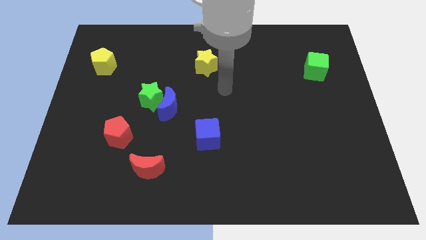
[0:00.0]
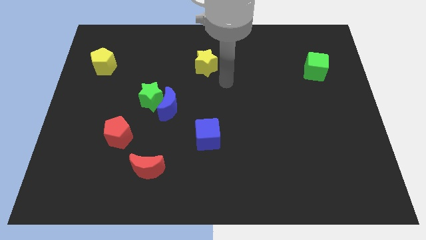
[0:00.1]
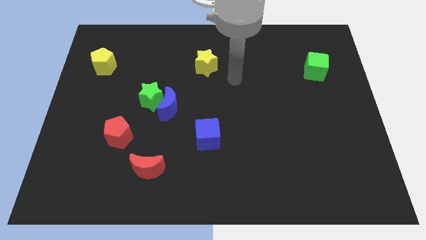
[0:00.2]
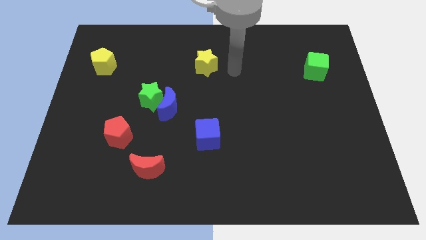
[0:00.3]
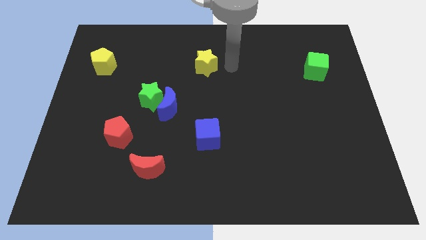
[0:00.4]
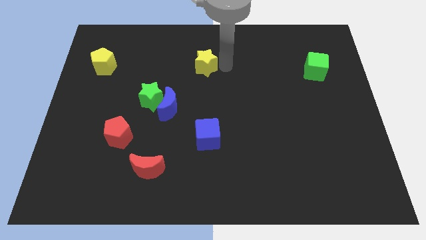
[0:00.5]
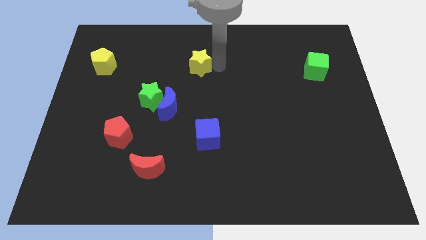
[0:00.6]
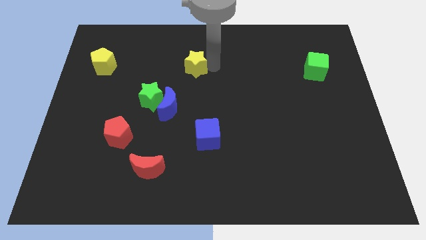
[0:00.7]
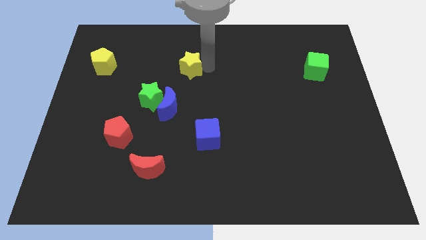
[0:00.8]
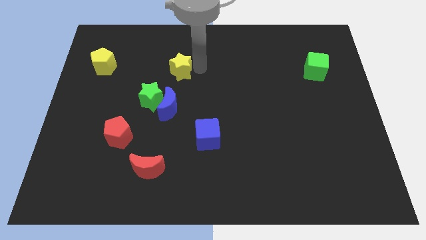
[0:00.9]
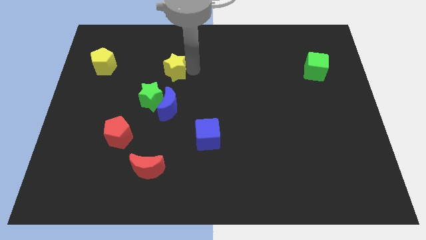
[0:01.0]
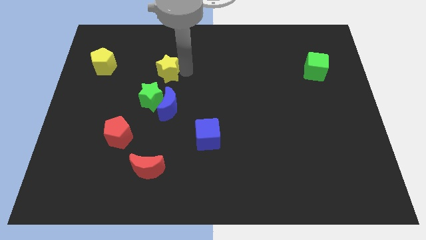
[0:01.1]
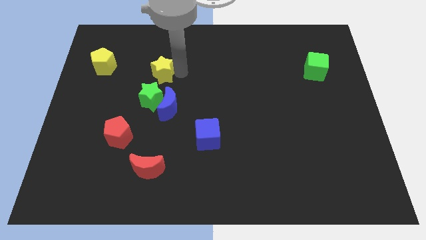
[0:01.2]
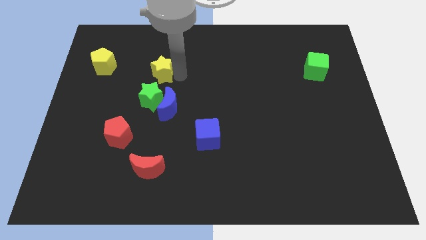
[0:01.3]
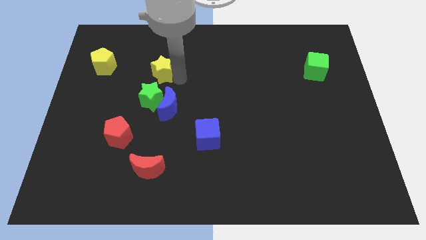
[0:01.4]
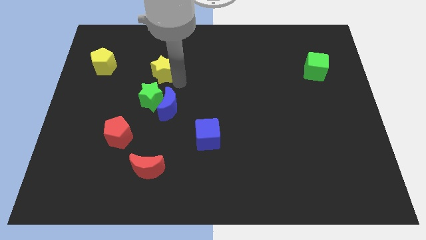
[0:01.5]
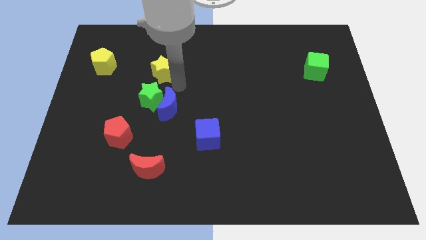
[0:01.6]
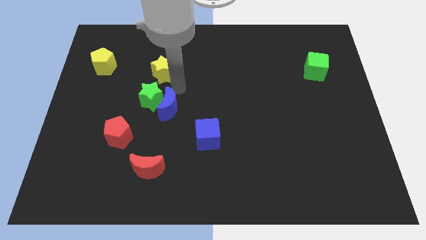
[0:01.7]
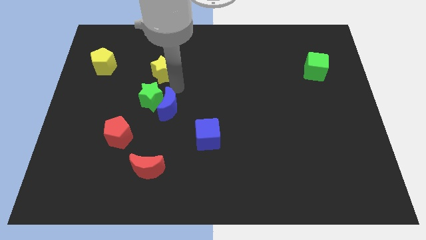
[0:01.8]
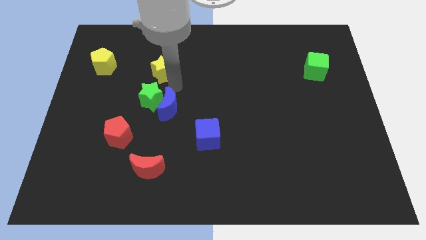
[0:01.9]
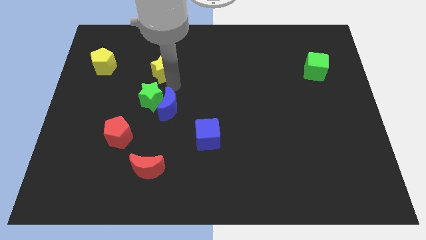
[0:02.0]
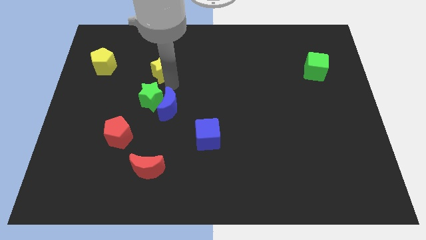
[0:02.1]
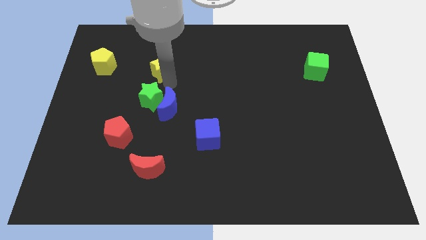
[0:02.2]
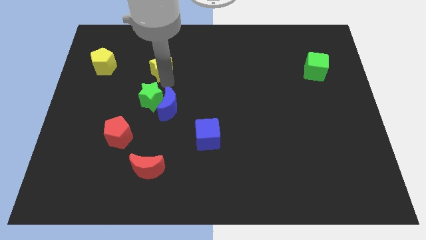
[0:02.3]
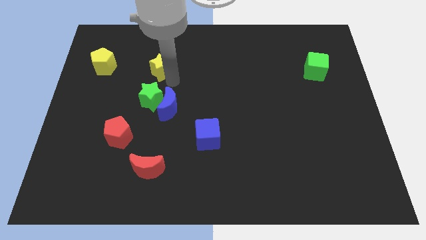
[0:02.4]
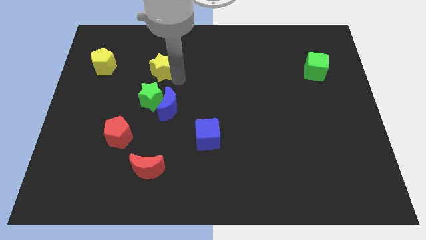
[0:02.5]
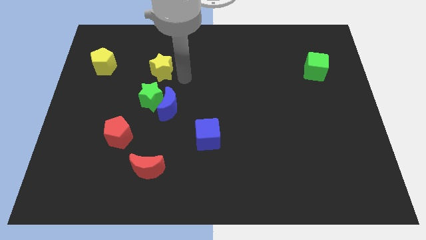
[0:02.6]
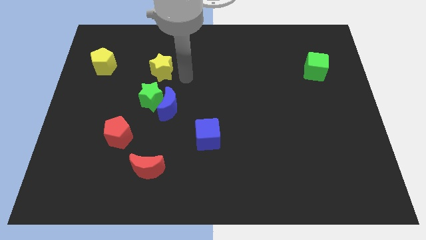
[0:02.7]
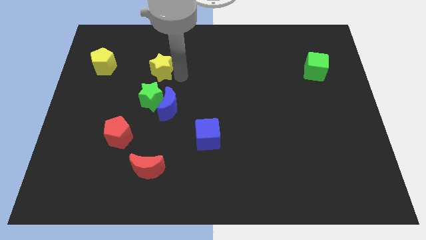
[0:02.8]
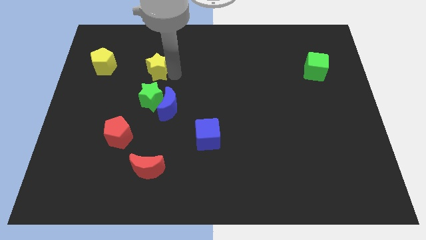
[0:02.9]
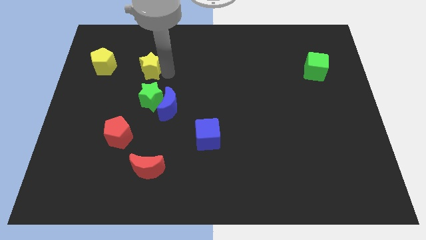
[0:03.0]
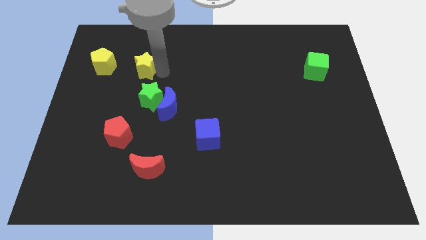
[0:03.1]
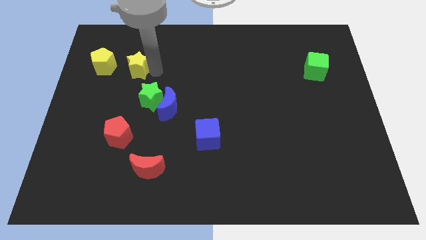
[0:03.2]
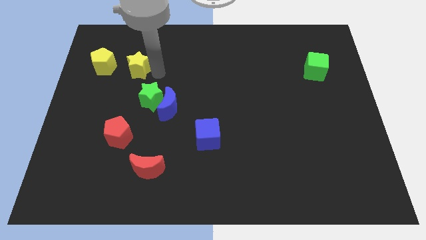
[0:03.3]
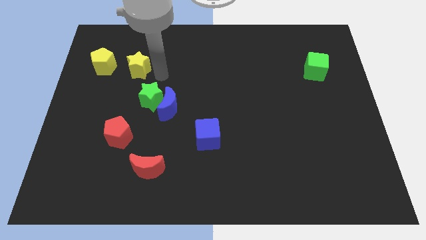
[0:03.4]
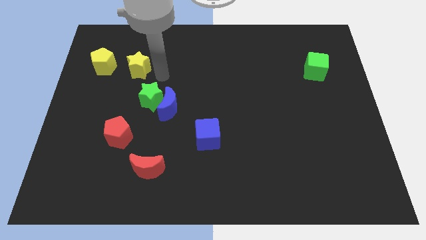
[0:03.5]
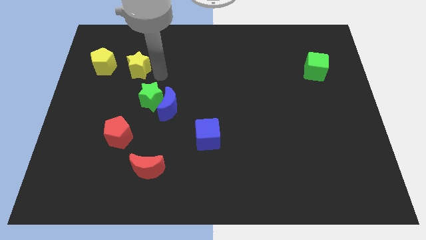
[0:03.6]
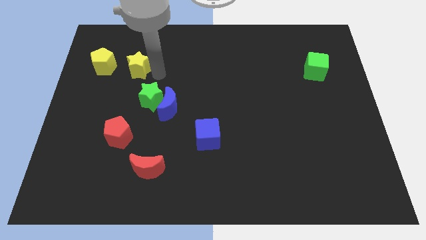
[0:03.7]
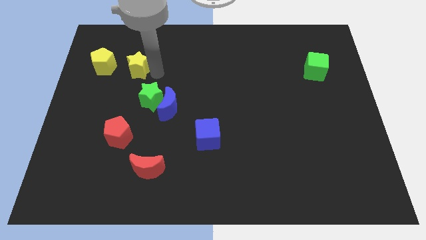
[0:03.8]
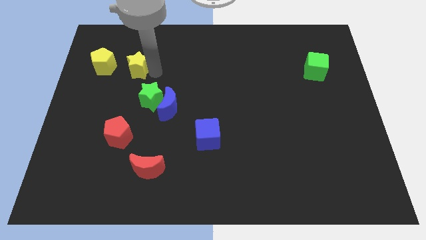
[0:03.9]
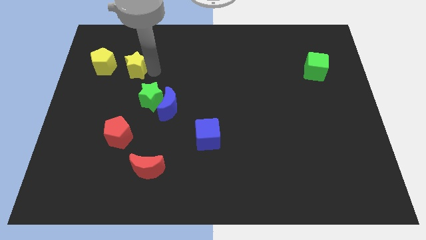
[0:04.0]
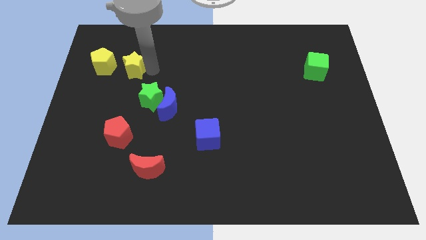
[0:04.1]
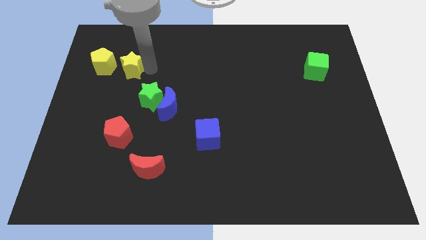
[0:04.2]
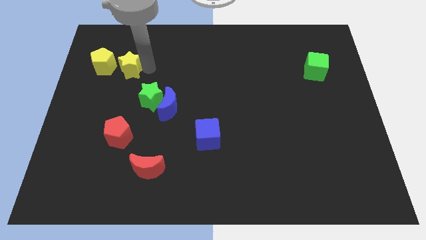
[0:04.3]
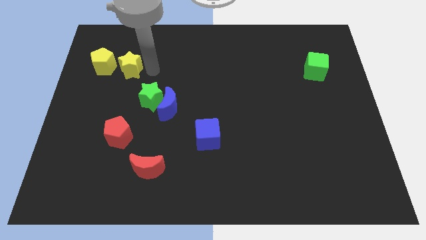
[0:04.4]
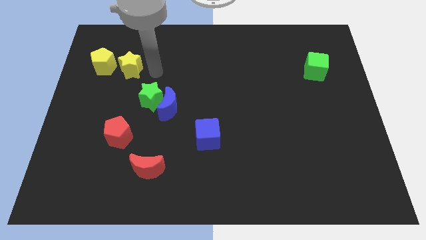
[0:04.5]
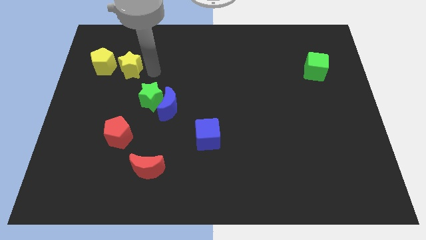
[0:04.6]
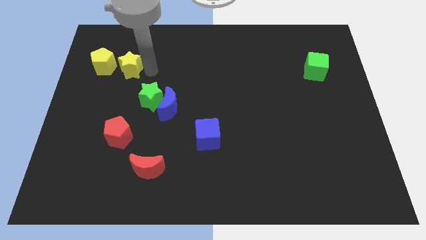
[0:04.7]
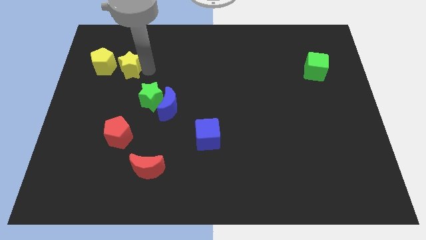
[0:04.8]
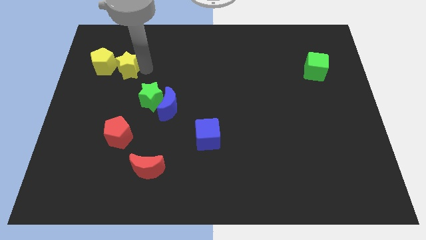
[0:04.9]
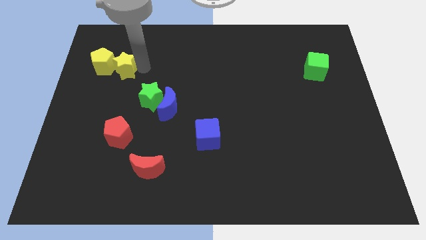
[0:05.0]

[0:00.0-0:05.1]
push the yellow star close to the yellow pentagon

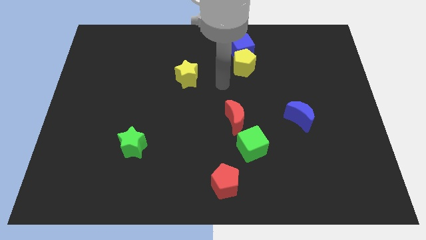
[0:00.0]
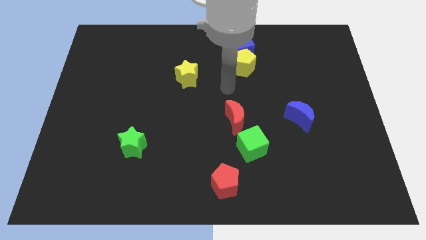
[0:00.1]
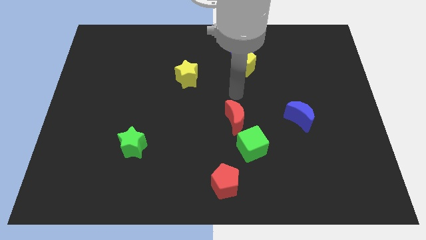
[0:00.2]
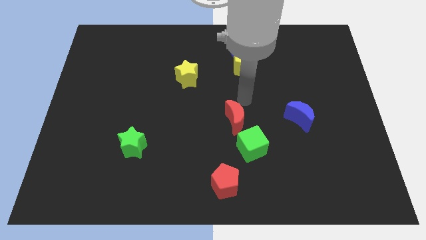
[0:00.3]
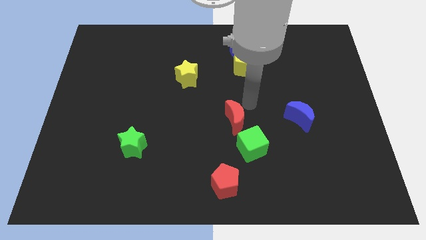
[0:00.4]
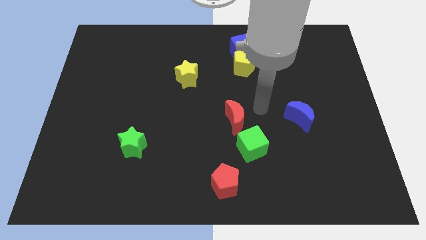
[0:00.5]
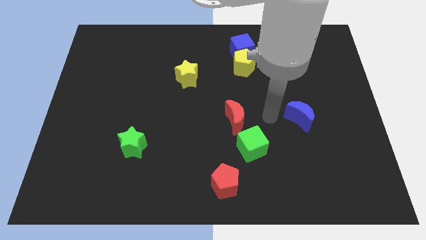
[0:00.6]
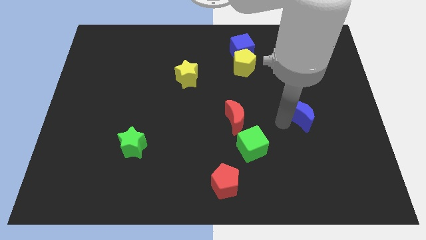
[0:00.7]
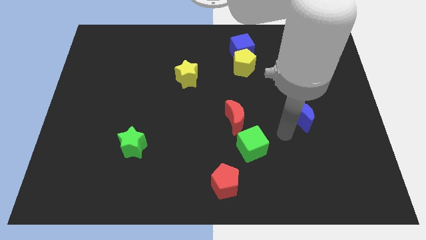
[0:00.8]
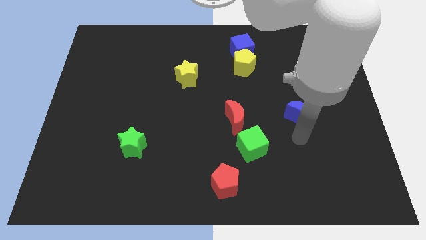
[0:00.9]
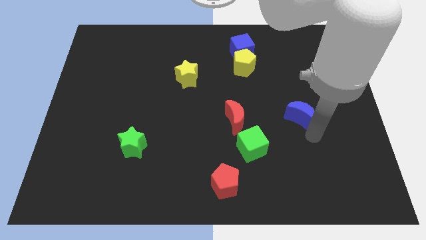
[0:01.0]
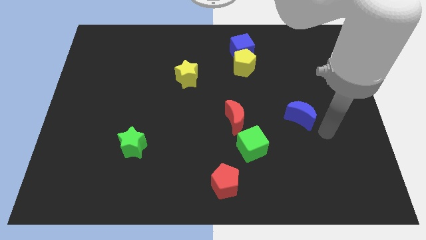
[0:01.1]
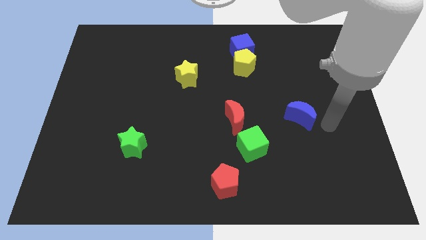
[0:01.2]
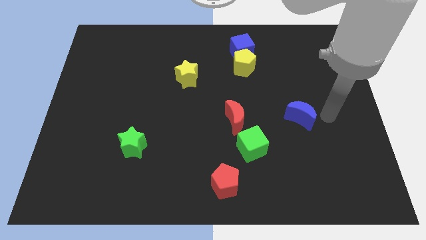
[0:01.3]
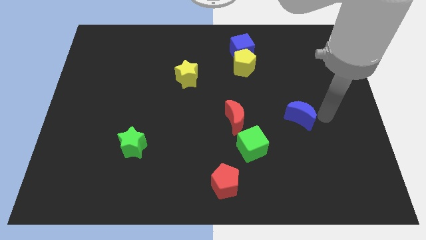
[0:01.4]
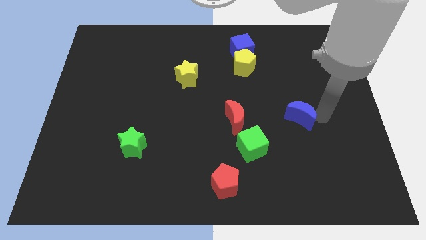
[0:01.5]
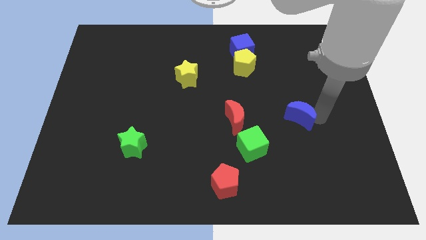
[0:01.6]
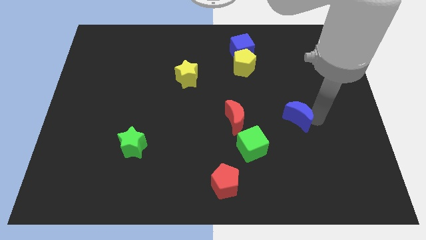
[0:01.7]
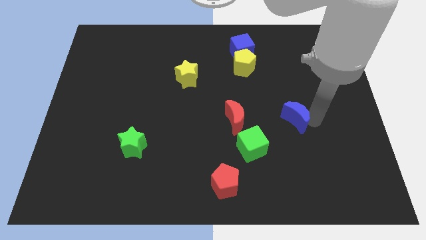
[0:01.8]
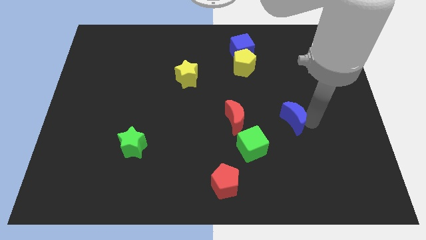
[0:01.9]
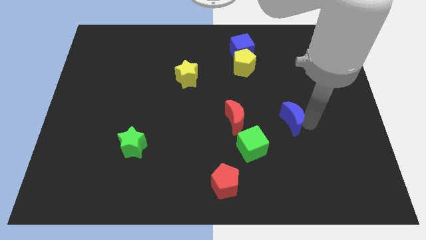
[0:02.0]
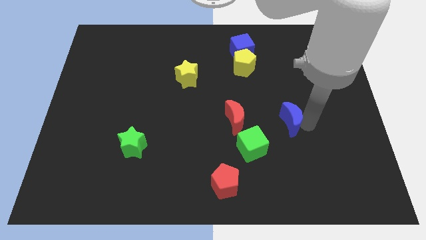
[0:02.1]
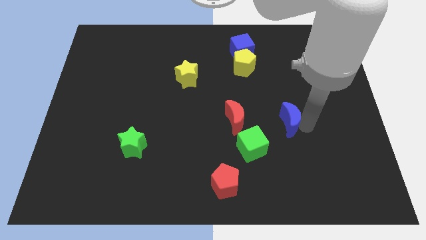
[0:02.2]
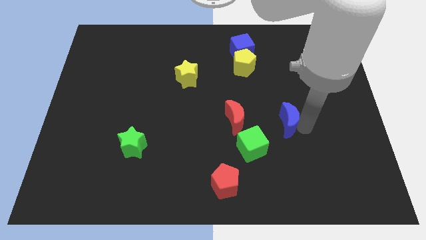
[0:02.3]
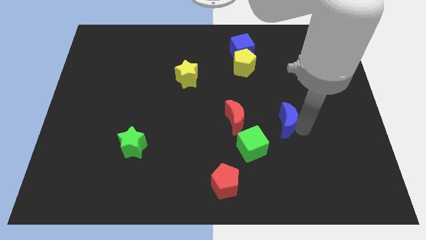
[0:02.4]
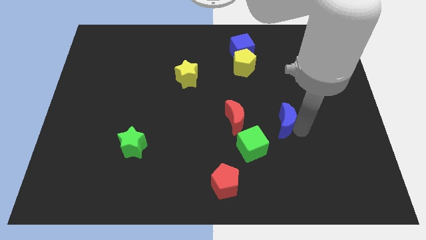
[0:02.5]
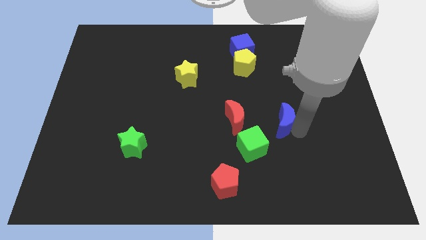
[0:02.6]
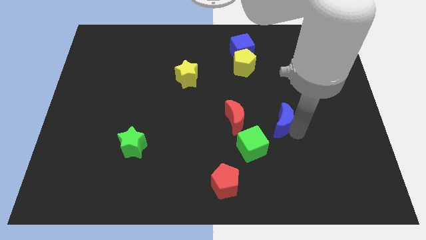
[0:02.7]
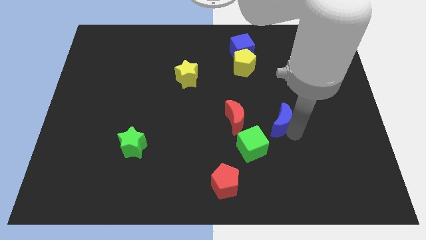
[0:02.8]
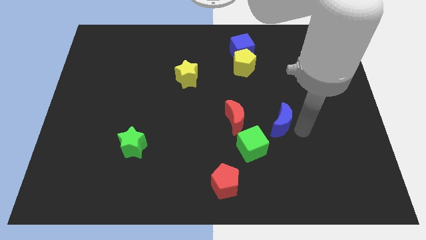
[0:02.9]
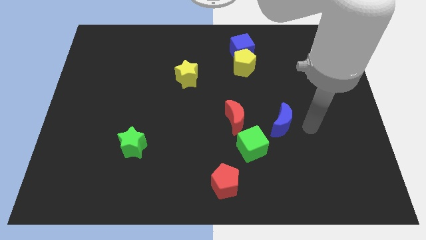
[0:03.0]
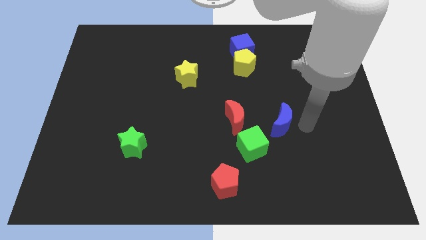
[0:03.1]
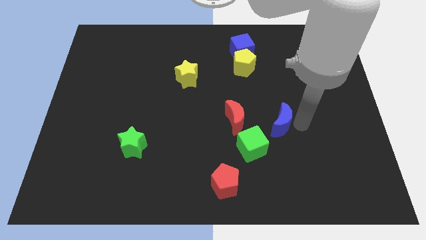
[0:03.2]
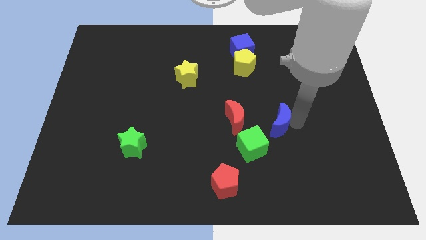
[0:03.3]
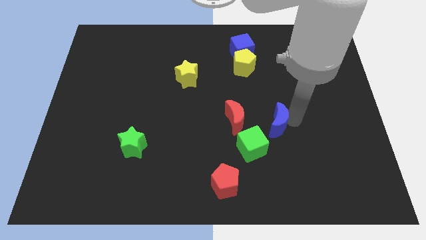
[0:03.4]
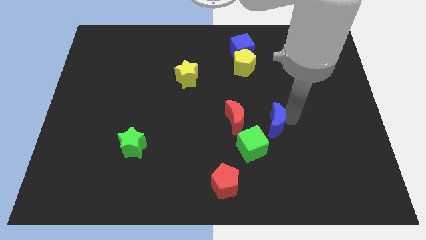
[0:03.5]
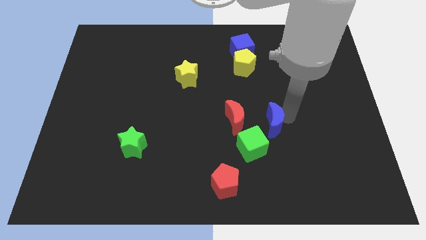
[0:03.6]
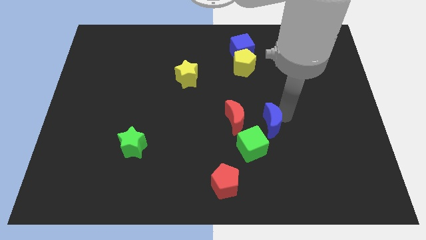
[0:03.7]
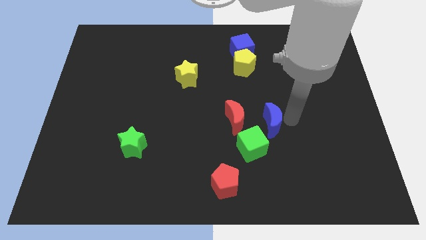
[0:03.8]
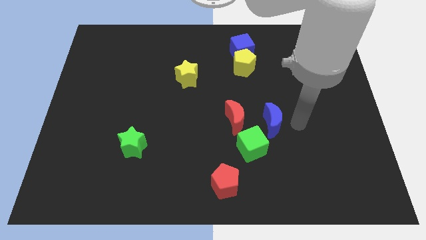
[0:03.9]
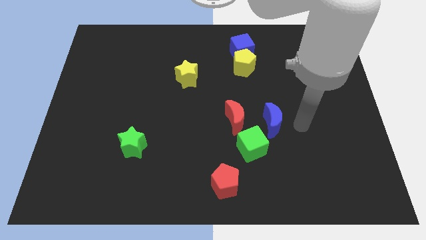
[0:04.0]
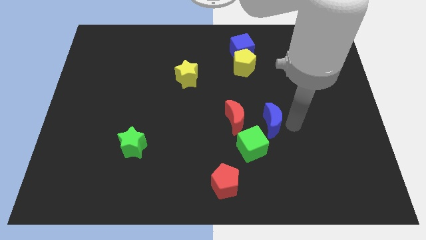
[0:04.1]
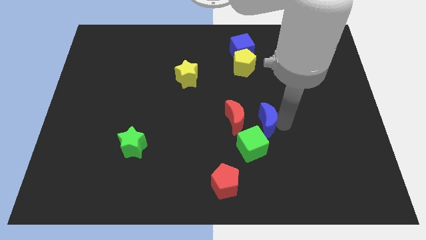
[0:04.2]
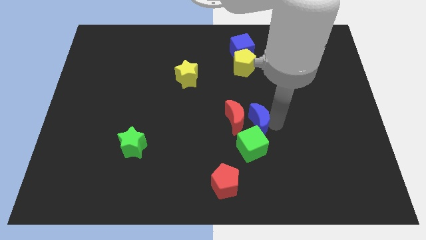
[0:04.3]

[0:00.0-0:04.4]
put the blue moon to the red moon
